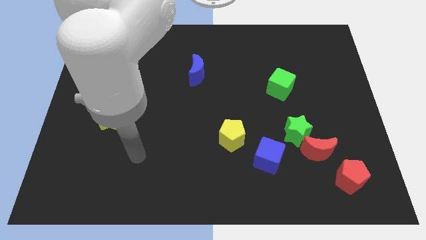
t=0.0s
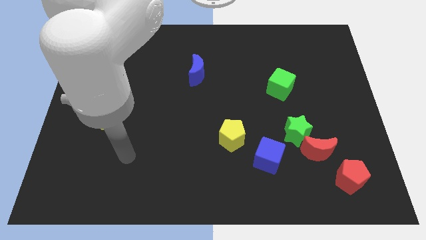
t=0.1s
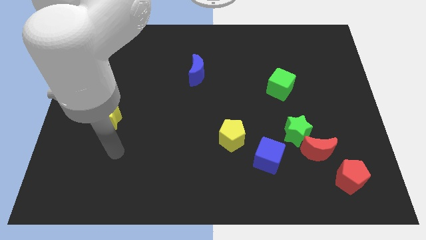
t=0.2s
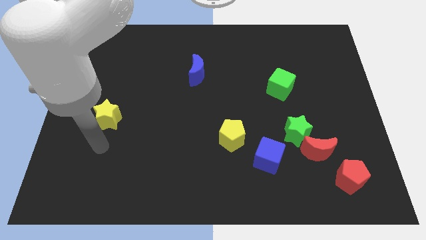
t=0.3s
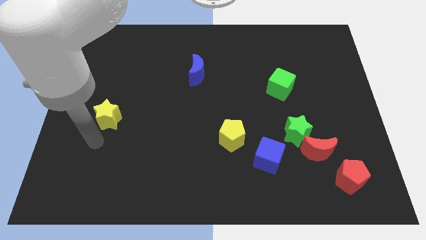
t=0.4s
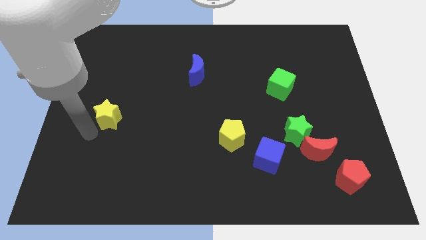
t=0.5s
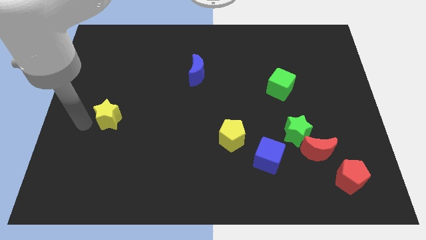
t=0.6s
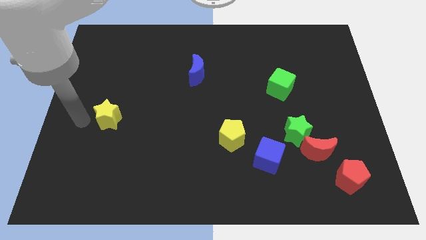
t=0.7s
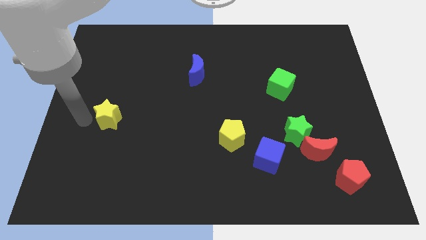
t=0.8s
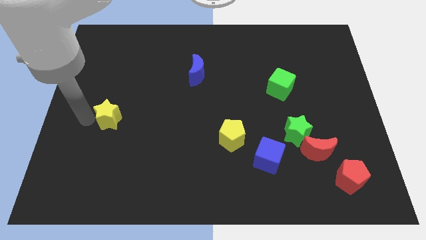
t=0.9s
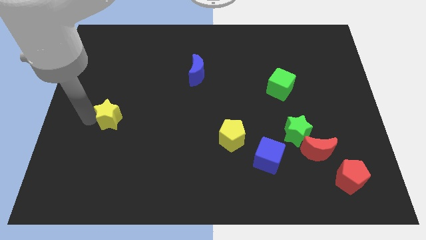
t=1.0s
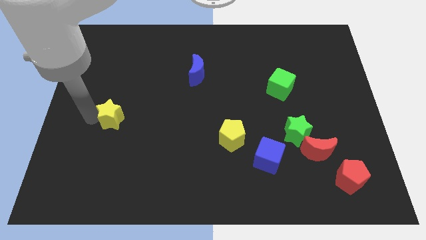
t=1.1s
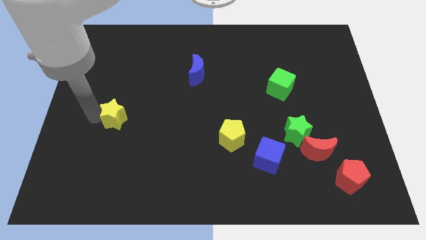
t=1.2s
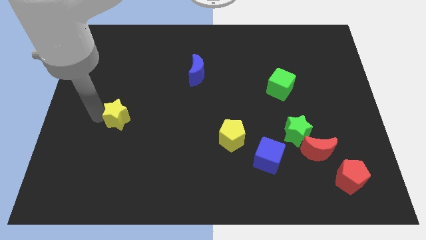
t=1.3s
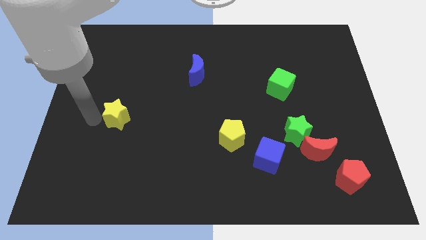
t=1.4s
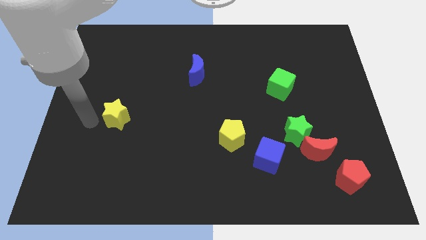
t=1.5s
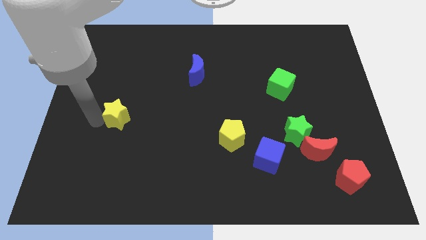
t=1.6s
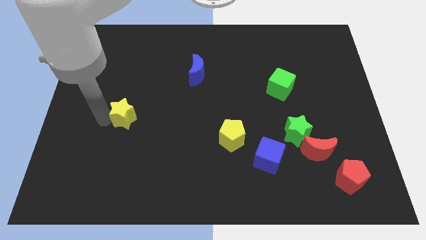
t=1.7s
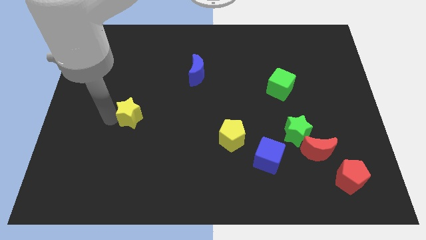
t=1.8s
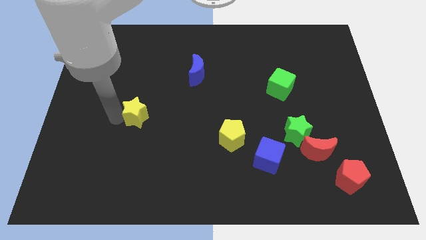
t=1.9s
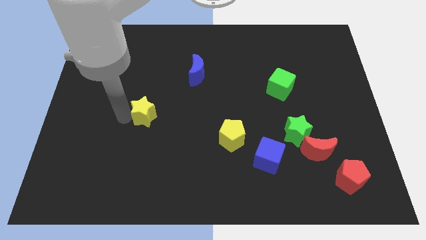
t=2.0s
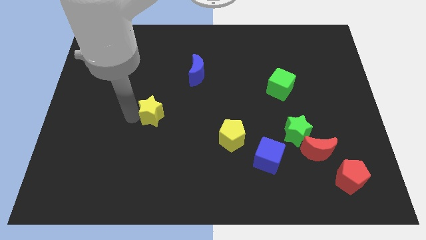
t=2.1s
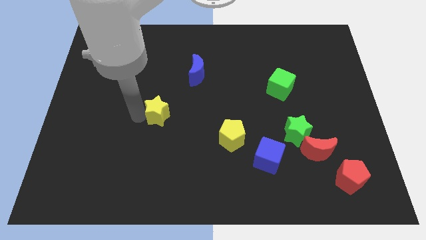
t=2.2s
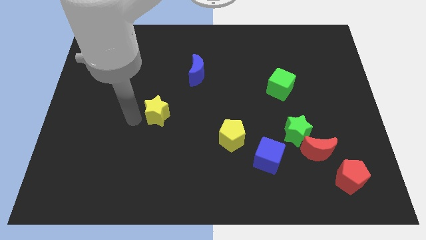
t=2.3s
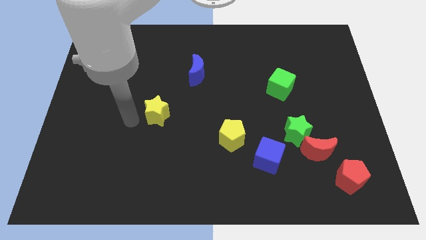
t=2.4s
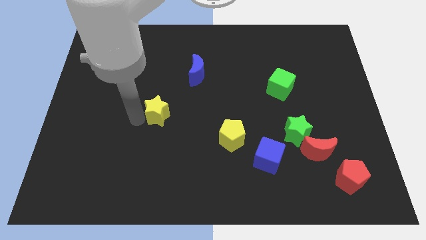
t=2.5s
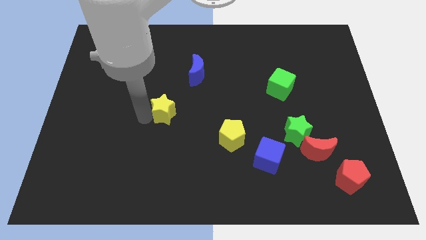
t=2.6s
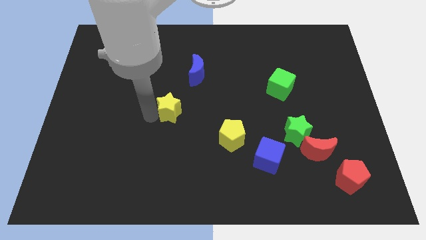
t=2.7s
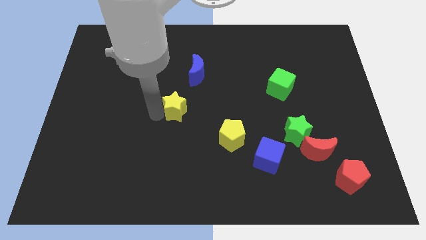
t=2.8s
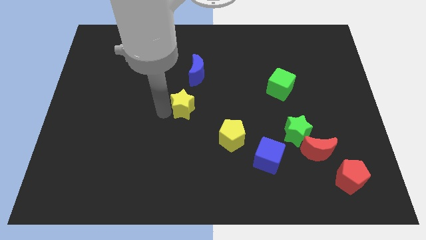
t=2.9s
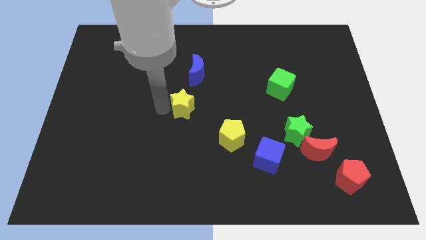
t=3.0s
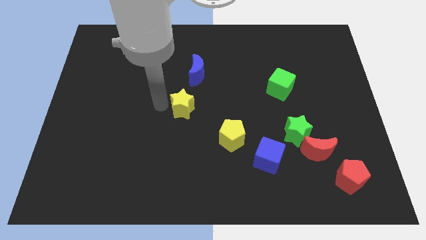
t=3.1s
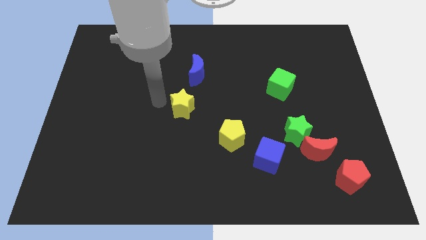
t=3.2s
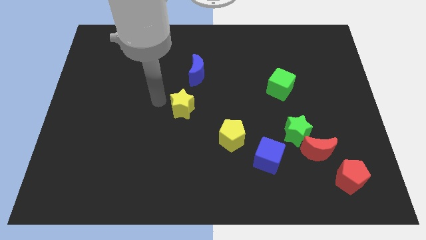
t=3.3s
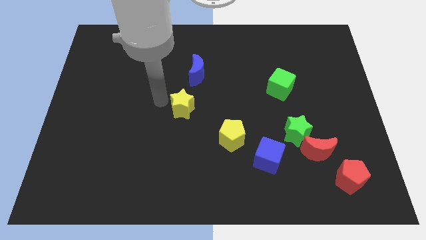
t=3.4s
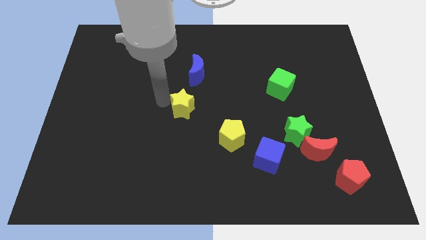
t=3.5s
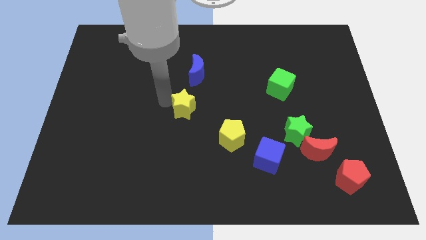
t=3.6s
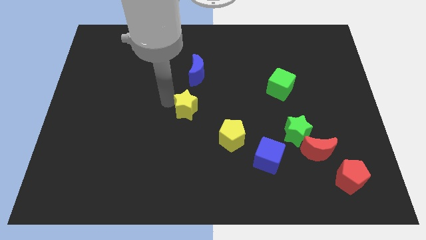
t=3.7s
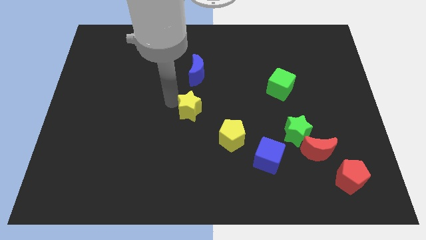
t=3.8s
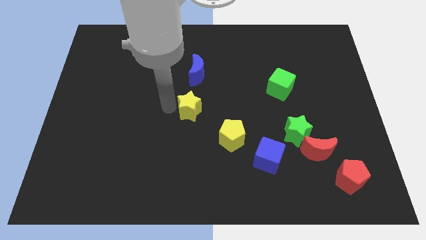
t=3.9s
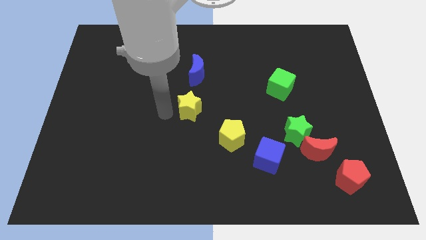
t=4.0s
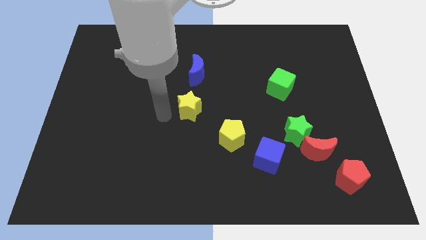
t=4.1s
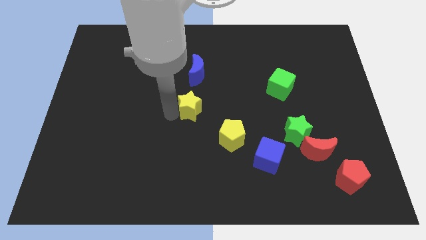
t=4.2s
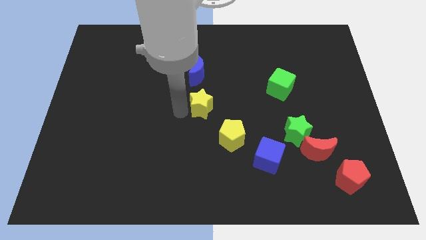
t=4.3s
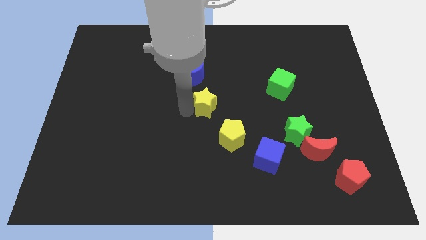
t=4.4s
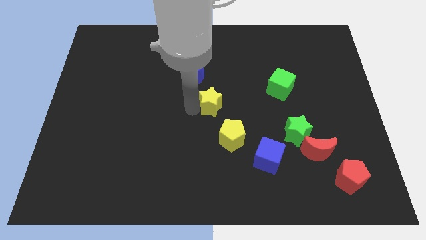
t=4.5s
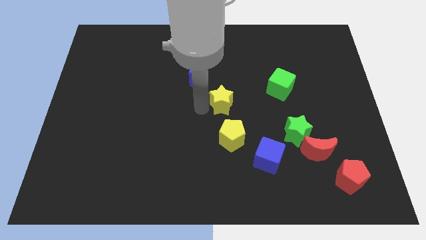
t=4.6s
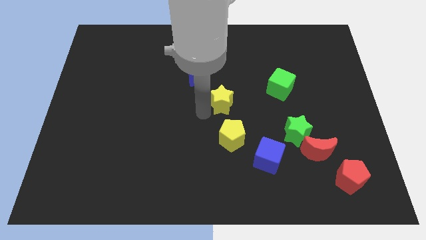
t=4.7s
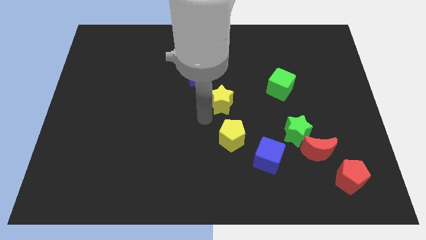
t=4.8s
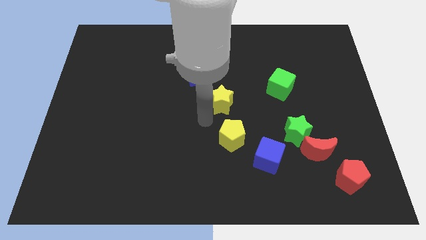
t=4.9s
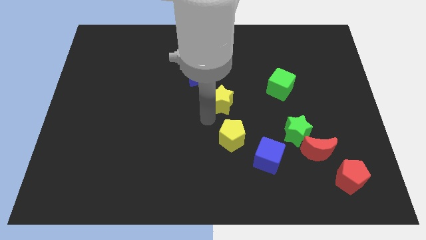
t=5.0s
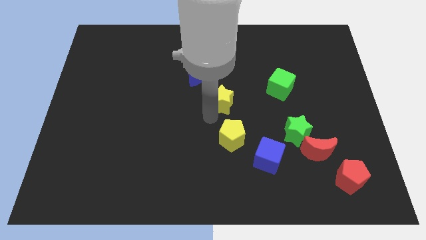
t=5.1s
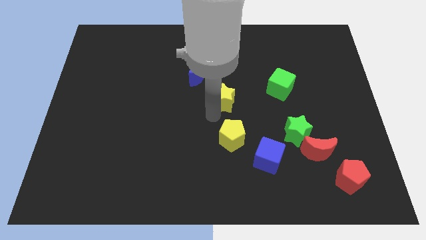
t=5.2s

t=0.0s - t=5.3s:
move the yellow star left of the green cube

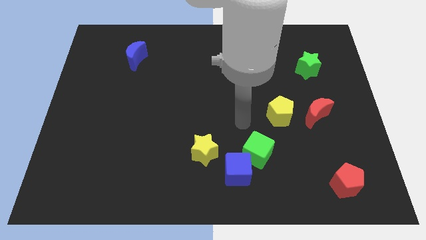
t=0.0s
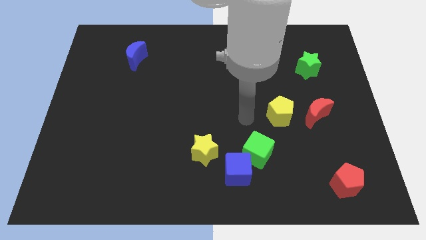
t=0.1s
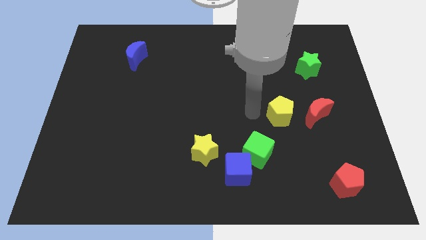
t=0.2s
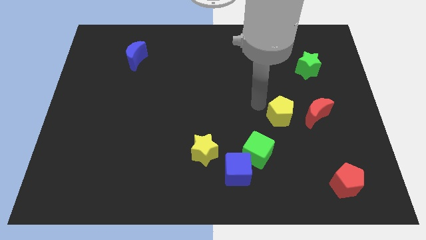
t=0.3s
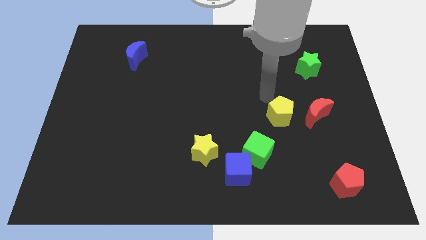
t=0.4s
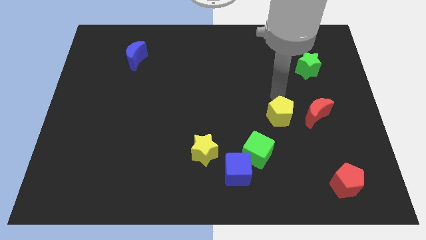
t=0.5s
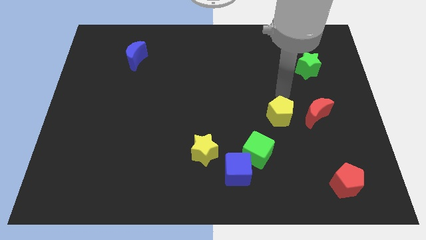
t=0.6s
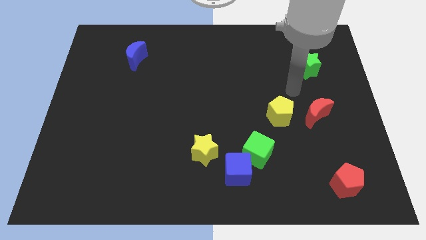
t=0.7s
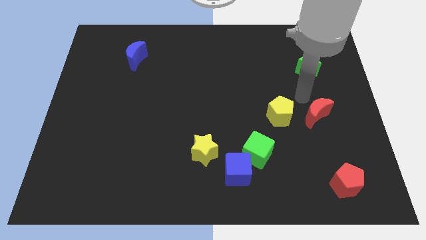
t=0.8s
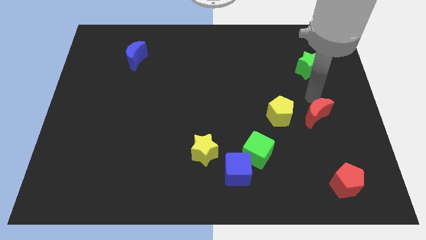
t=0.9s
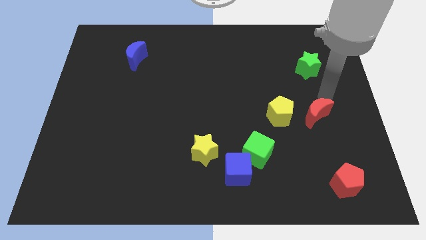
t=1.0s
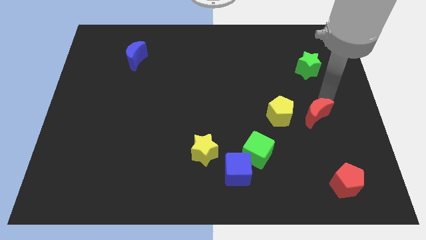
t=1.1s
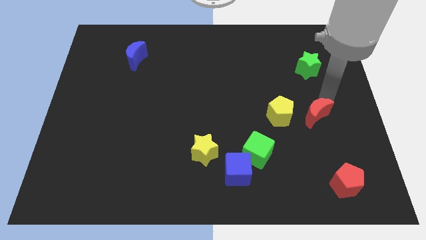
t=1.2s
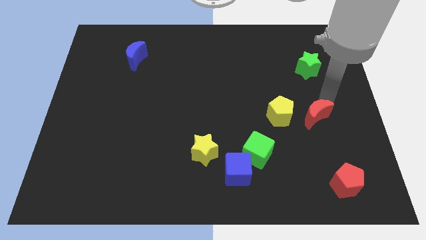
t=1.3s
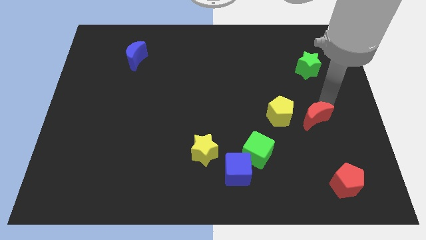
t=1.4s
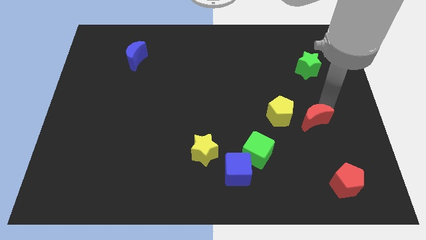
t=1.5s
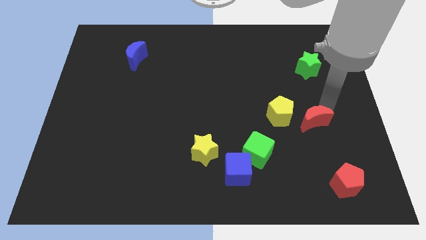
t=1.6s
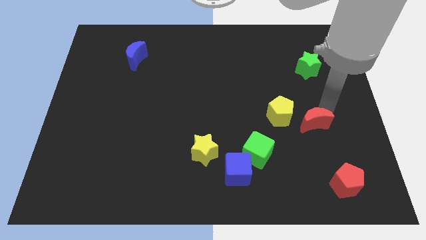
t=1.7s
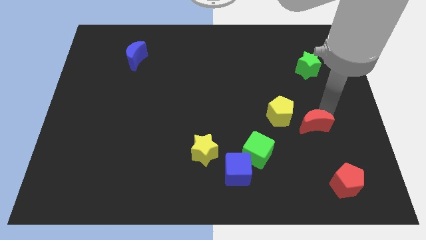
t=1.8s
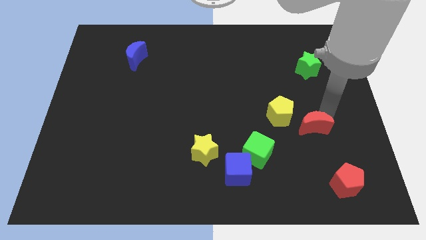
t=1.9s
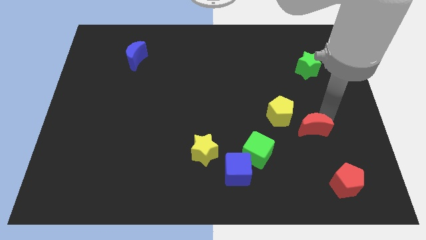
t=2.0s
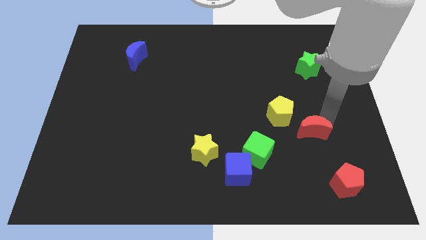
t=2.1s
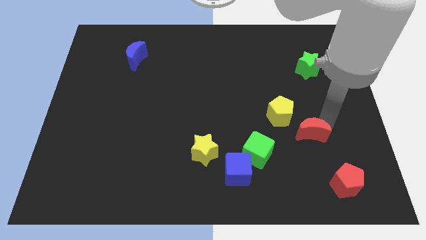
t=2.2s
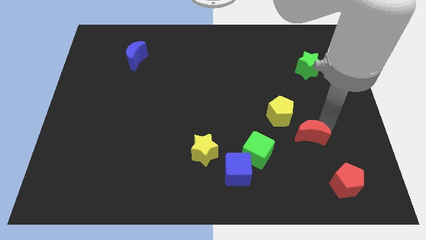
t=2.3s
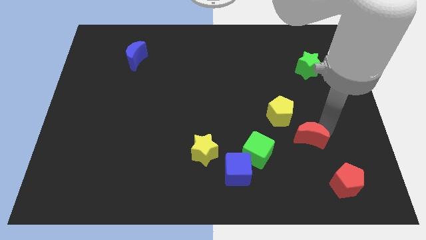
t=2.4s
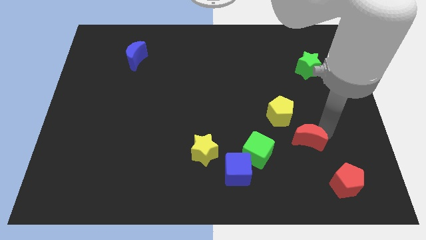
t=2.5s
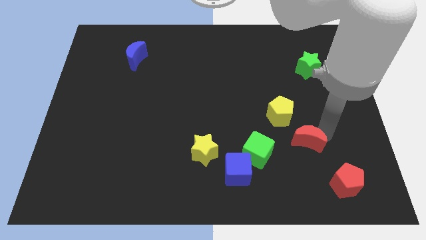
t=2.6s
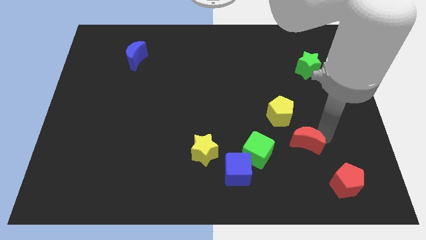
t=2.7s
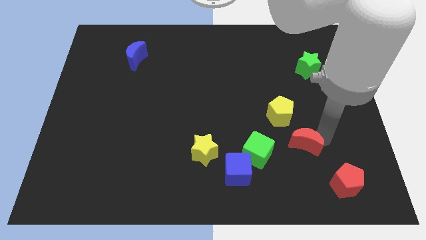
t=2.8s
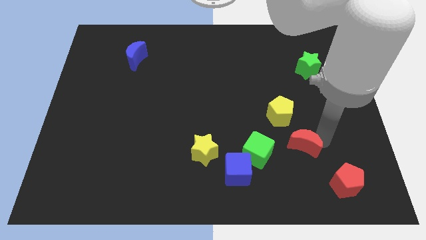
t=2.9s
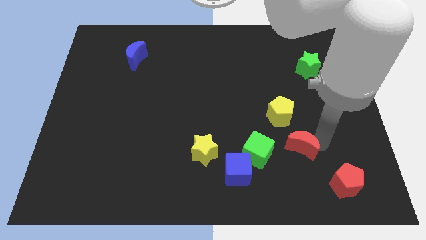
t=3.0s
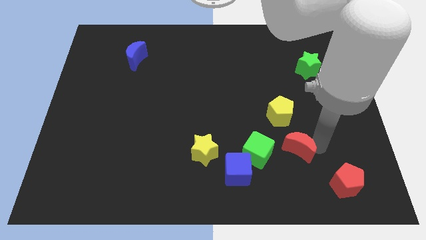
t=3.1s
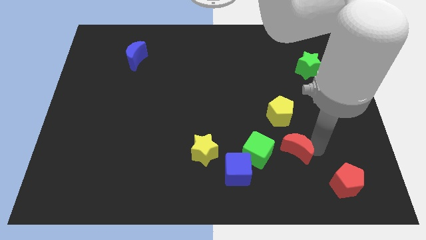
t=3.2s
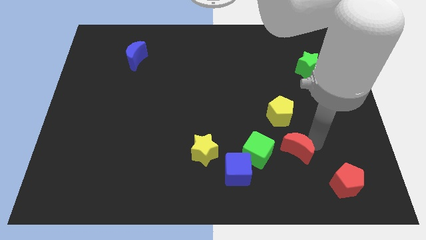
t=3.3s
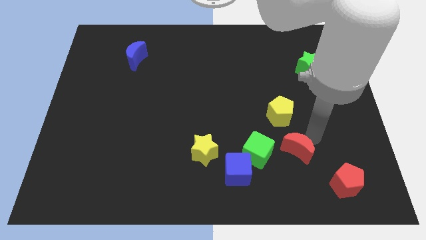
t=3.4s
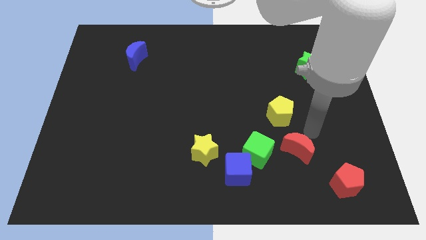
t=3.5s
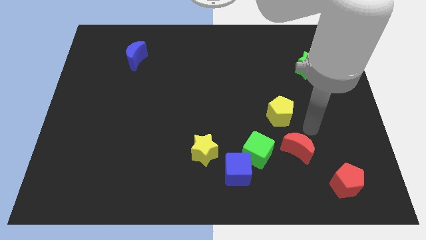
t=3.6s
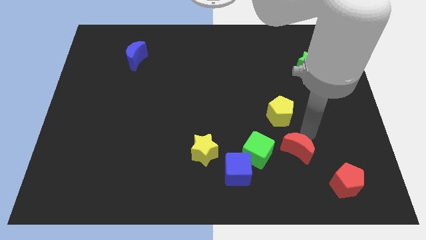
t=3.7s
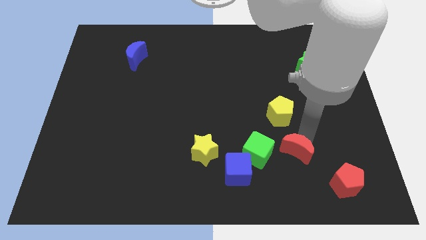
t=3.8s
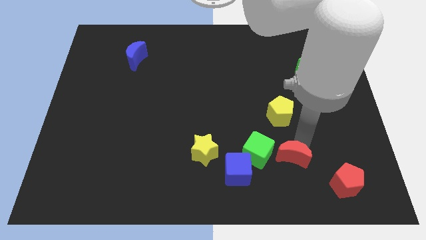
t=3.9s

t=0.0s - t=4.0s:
put the red moon diagonally down and to the right of the green cube
